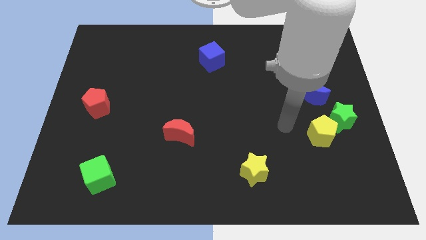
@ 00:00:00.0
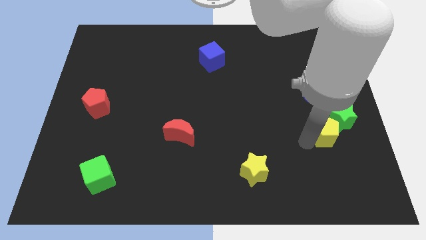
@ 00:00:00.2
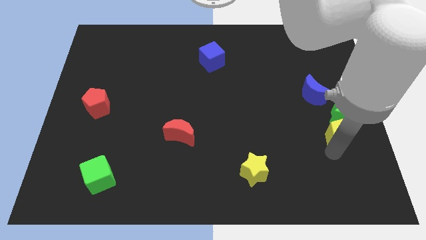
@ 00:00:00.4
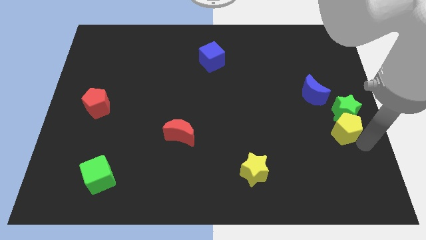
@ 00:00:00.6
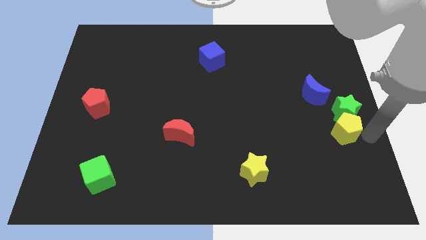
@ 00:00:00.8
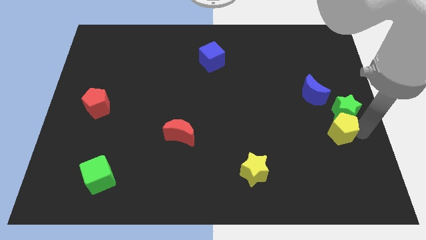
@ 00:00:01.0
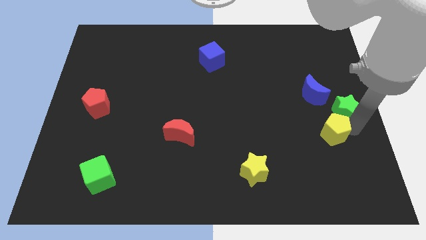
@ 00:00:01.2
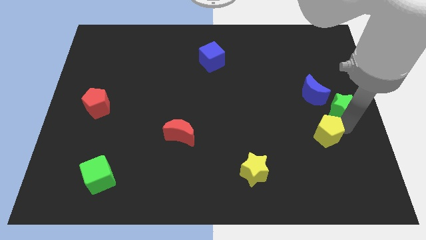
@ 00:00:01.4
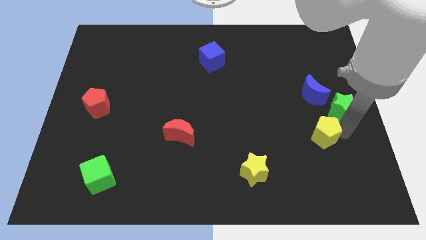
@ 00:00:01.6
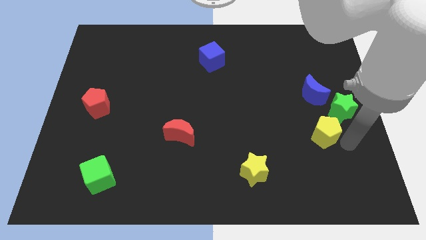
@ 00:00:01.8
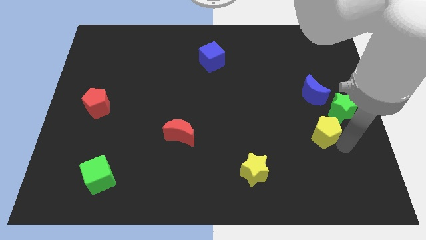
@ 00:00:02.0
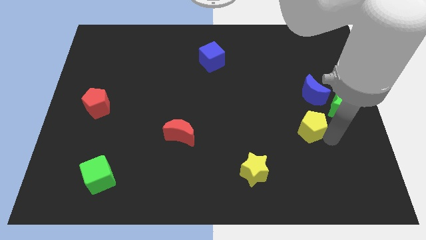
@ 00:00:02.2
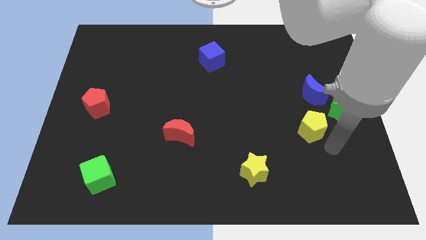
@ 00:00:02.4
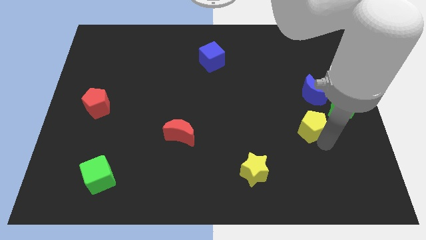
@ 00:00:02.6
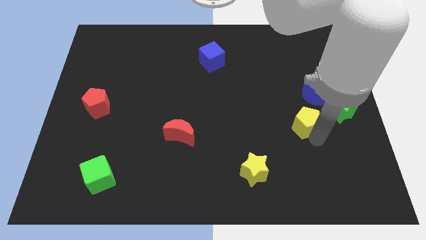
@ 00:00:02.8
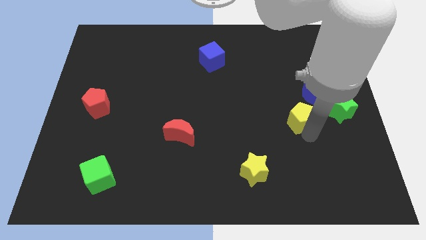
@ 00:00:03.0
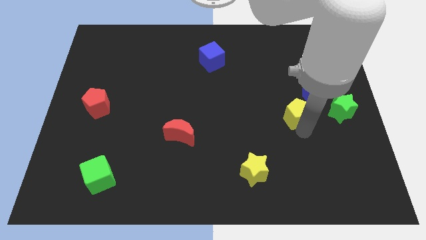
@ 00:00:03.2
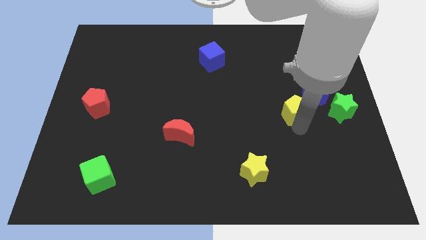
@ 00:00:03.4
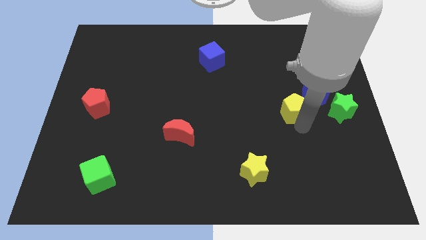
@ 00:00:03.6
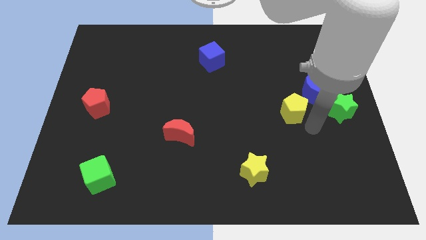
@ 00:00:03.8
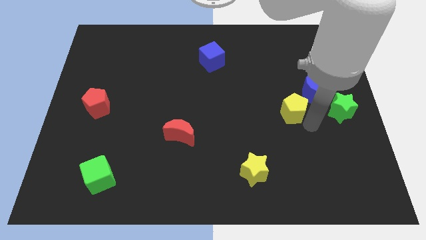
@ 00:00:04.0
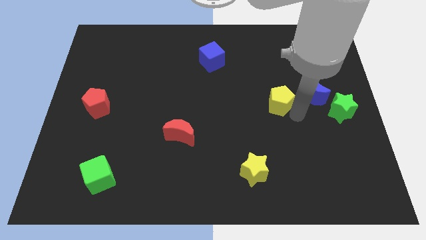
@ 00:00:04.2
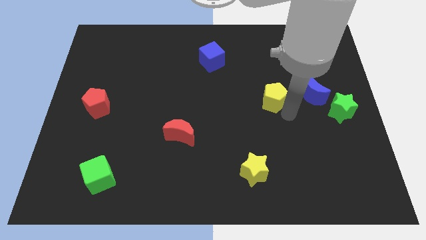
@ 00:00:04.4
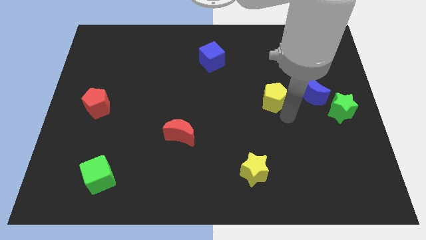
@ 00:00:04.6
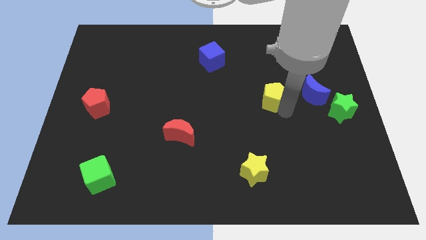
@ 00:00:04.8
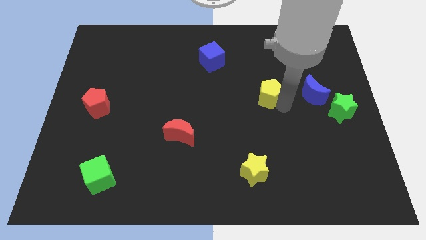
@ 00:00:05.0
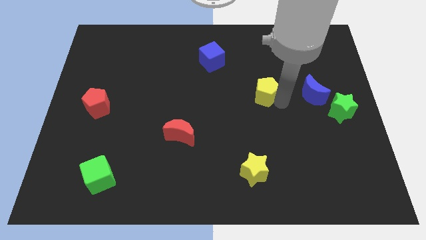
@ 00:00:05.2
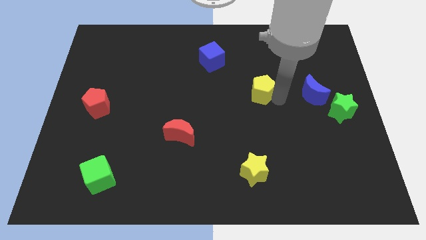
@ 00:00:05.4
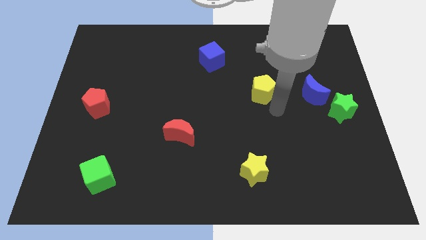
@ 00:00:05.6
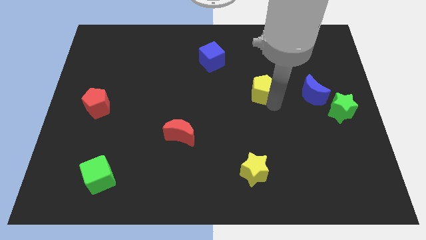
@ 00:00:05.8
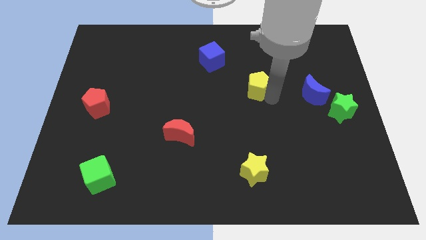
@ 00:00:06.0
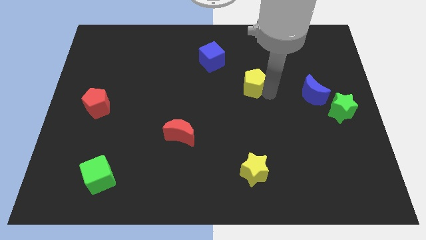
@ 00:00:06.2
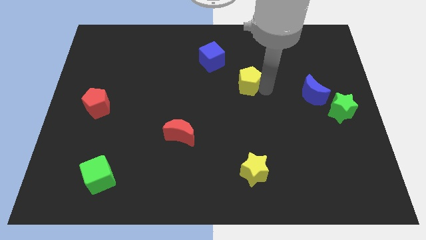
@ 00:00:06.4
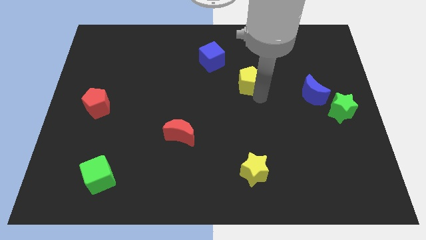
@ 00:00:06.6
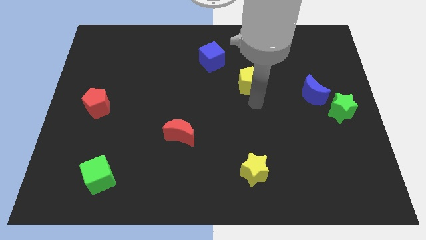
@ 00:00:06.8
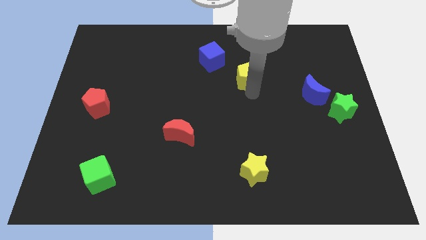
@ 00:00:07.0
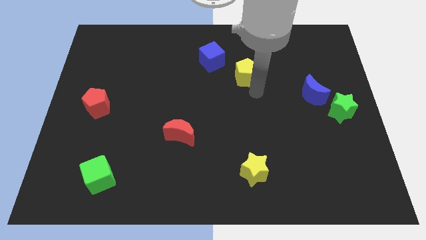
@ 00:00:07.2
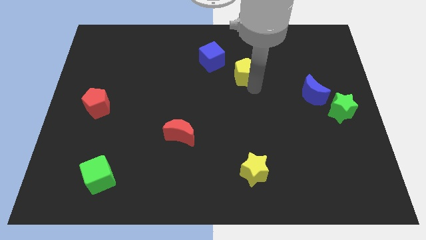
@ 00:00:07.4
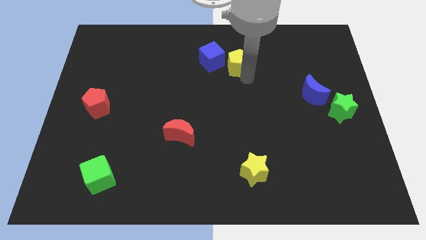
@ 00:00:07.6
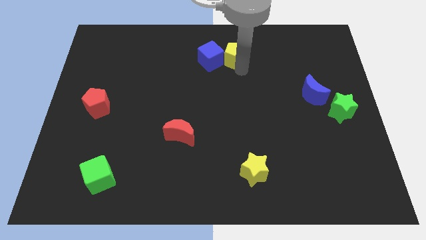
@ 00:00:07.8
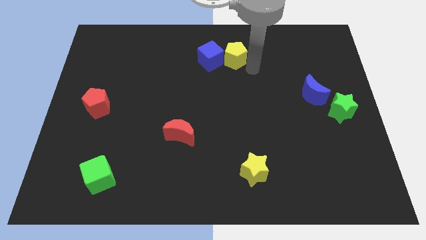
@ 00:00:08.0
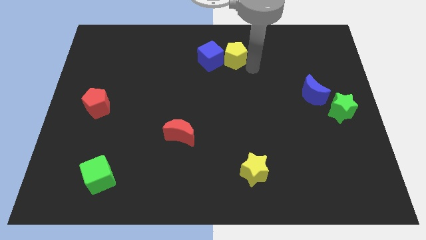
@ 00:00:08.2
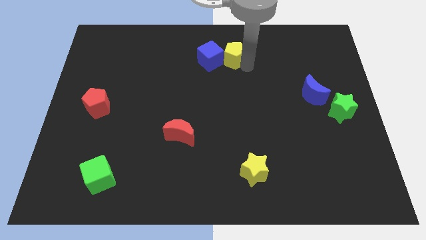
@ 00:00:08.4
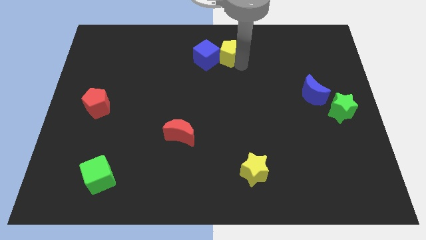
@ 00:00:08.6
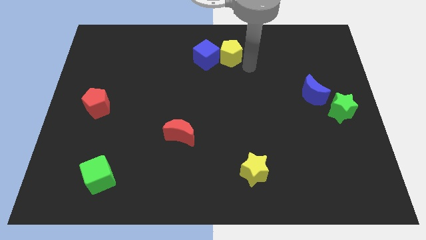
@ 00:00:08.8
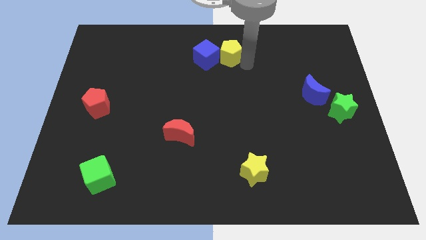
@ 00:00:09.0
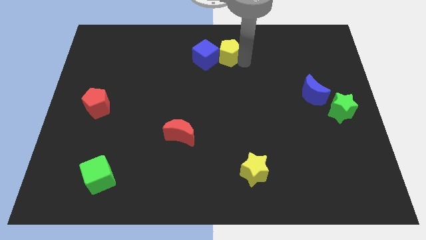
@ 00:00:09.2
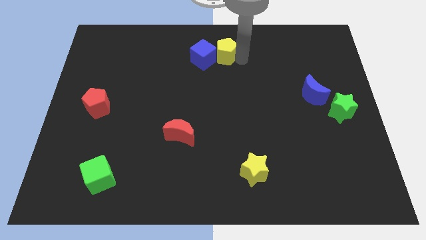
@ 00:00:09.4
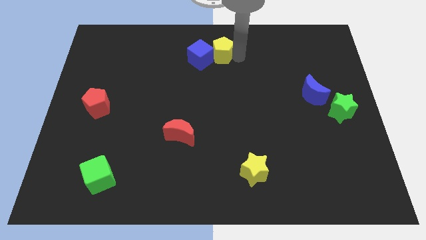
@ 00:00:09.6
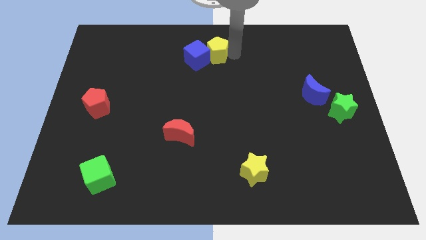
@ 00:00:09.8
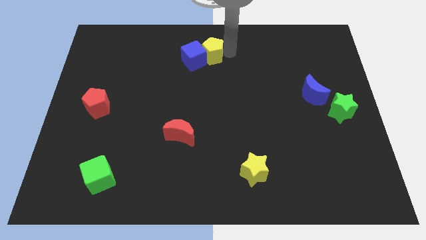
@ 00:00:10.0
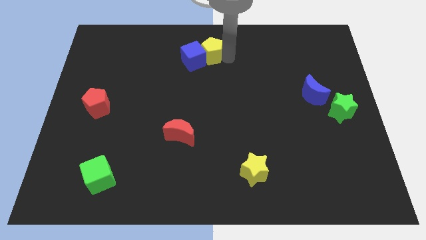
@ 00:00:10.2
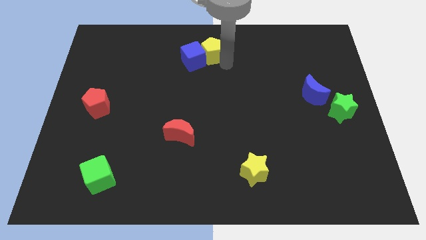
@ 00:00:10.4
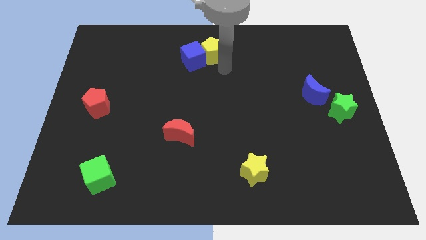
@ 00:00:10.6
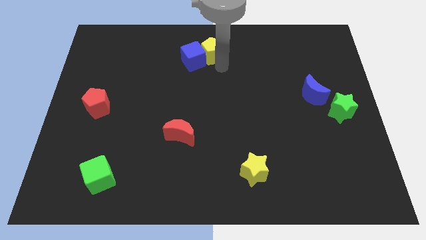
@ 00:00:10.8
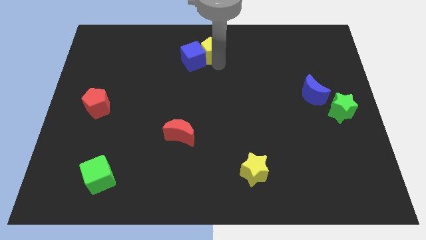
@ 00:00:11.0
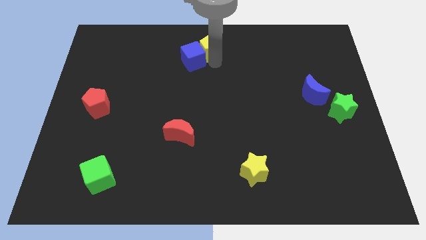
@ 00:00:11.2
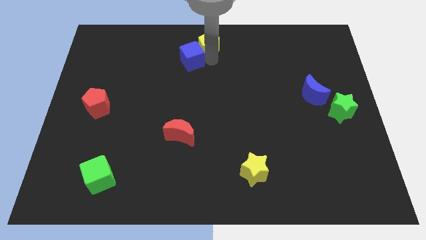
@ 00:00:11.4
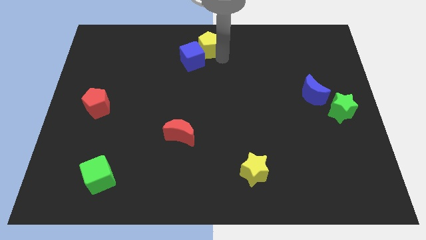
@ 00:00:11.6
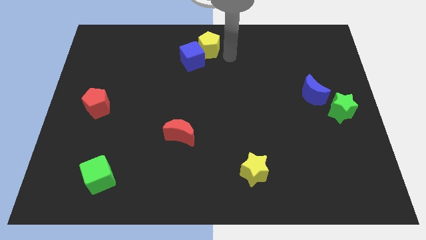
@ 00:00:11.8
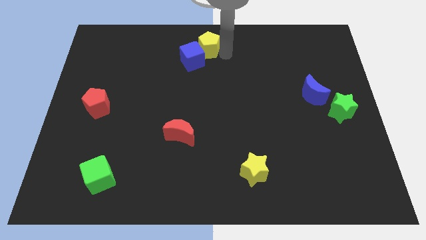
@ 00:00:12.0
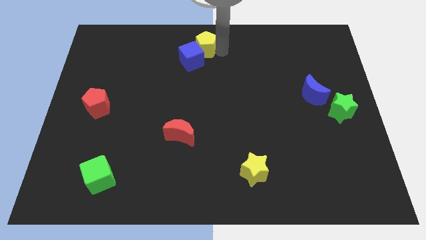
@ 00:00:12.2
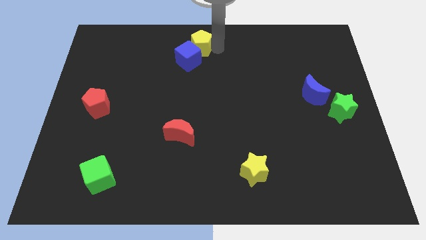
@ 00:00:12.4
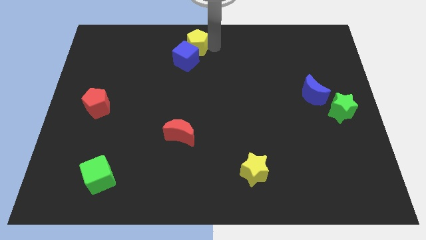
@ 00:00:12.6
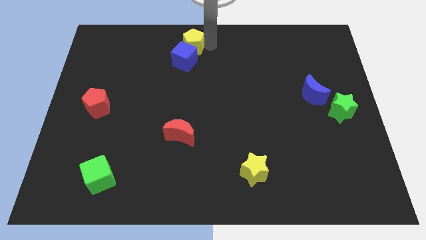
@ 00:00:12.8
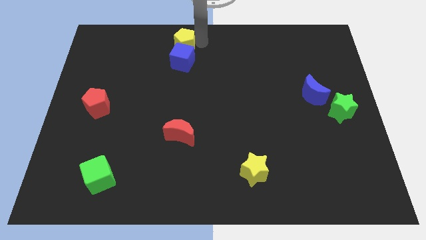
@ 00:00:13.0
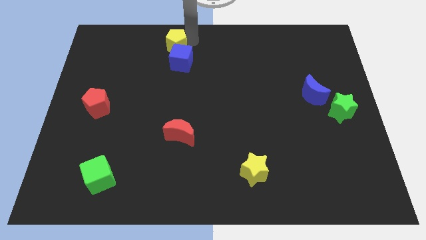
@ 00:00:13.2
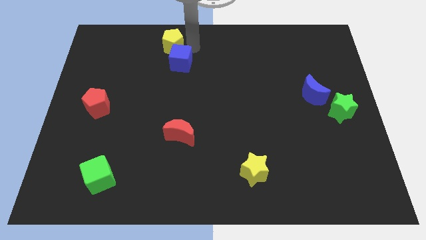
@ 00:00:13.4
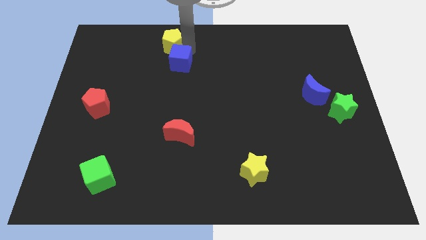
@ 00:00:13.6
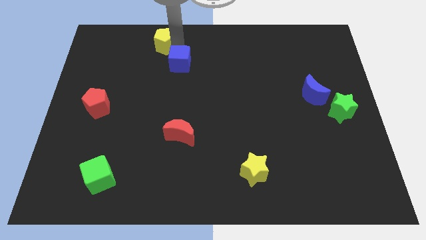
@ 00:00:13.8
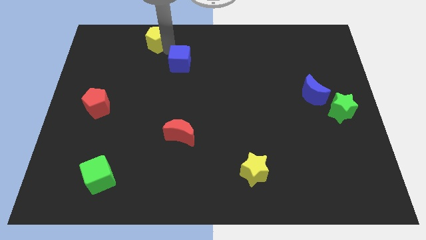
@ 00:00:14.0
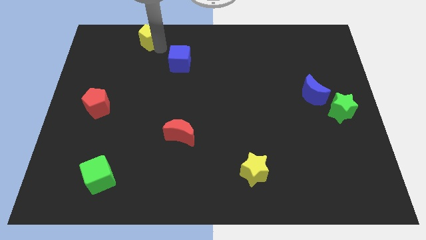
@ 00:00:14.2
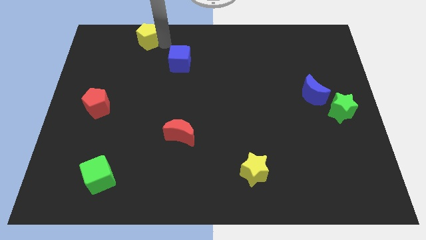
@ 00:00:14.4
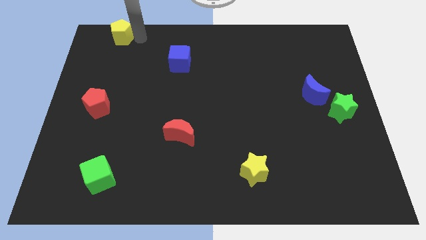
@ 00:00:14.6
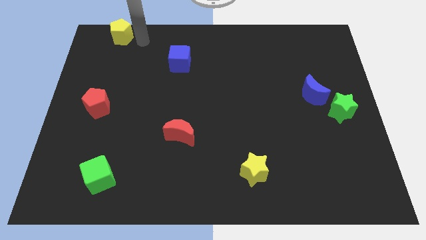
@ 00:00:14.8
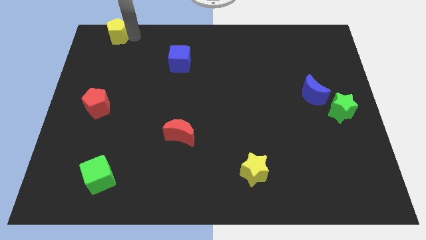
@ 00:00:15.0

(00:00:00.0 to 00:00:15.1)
move the yellow pentagon to the top left
